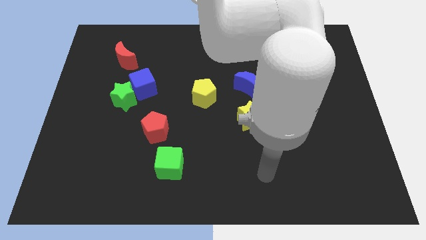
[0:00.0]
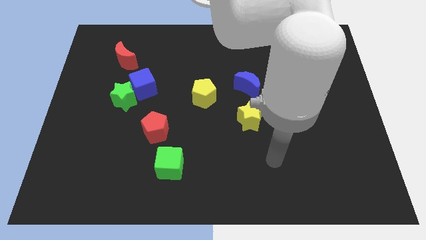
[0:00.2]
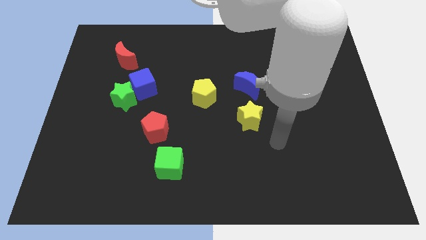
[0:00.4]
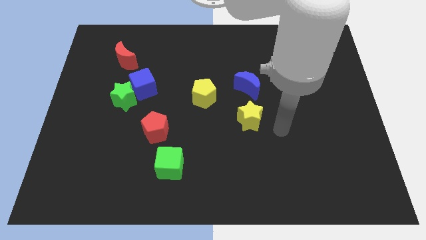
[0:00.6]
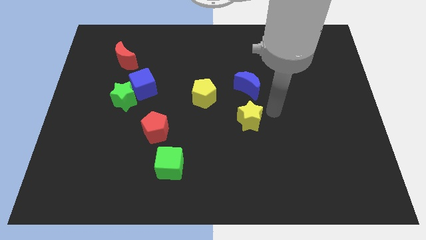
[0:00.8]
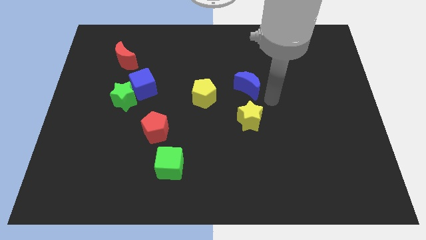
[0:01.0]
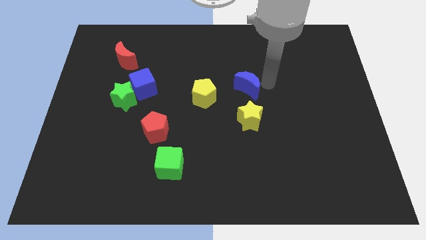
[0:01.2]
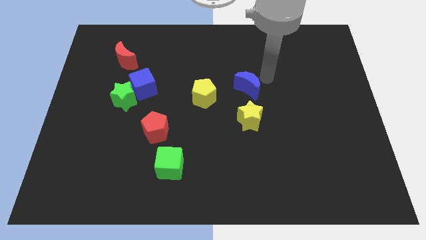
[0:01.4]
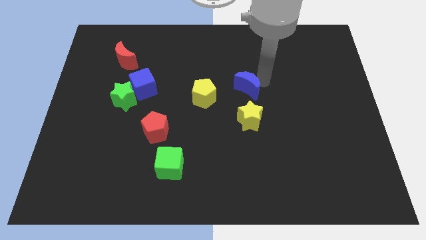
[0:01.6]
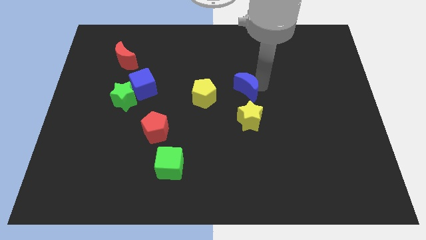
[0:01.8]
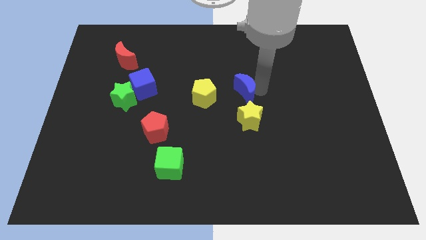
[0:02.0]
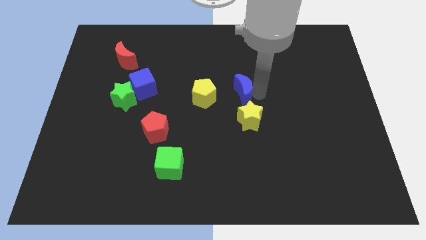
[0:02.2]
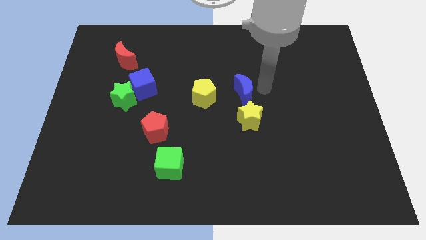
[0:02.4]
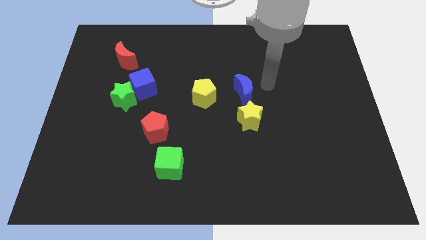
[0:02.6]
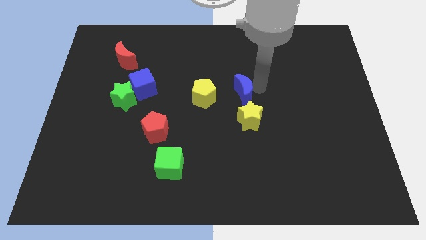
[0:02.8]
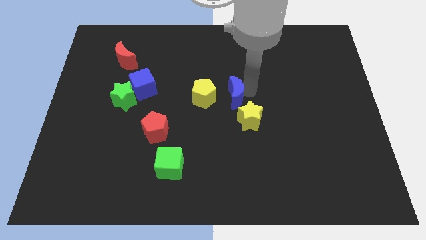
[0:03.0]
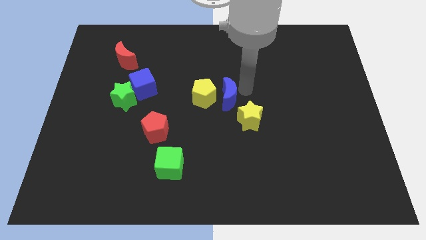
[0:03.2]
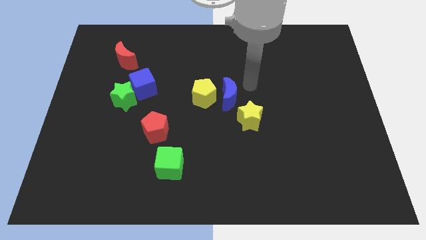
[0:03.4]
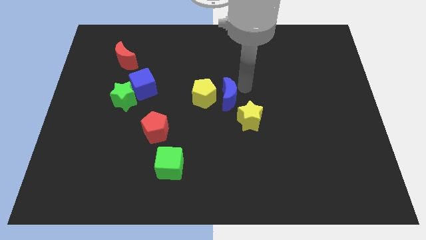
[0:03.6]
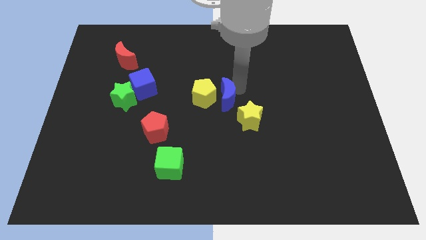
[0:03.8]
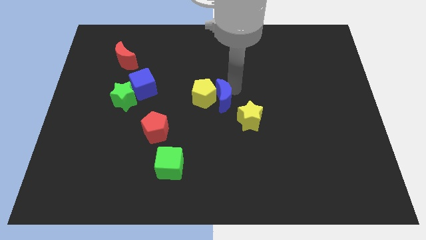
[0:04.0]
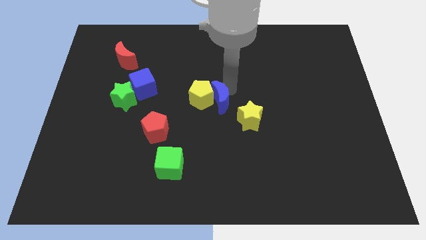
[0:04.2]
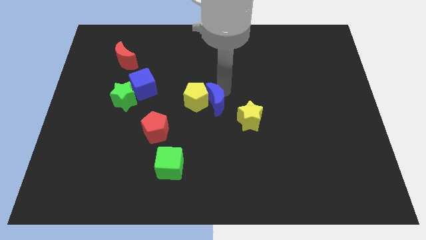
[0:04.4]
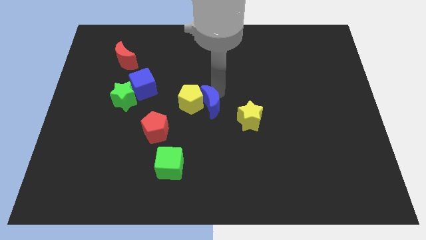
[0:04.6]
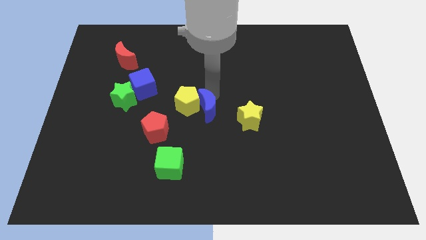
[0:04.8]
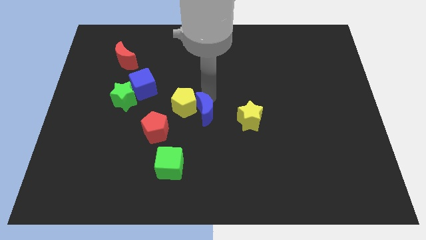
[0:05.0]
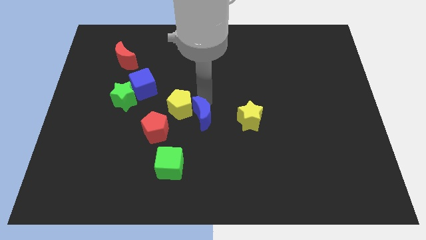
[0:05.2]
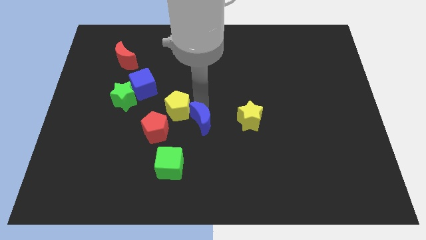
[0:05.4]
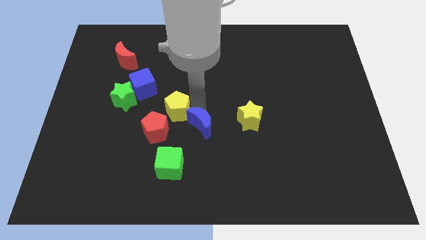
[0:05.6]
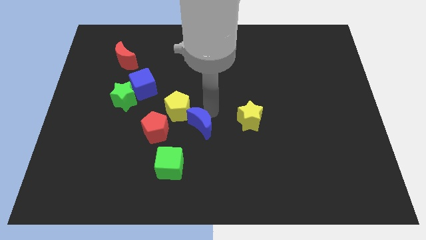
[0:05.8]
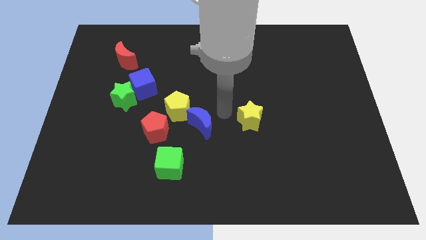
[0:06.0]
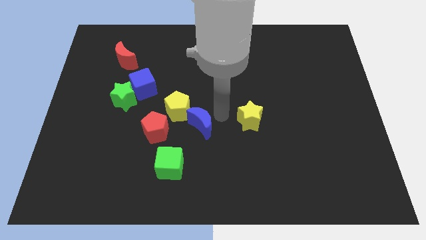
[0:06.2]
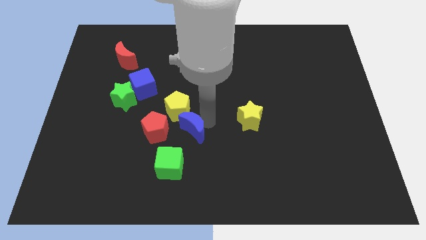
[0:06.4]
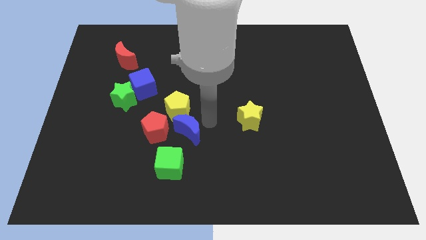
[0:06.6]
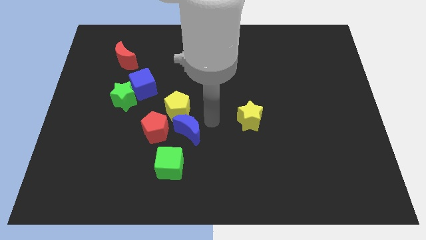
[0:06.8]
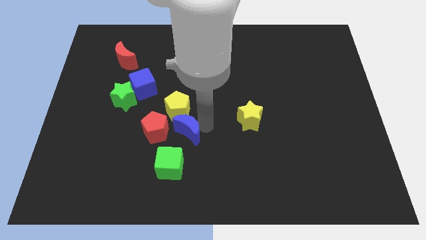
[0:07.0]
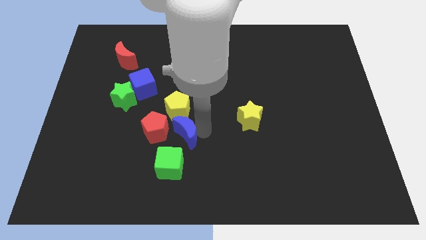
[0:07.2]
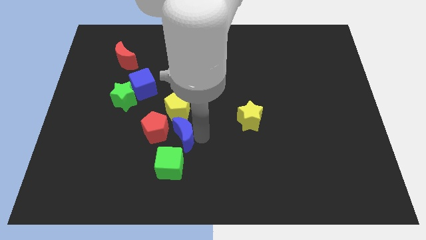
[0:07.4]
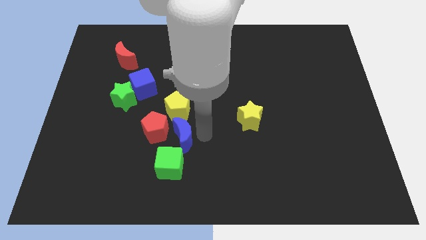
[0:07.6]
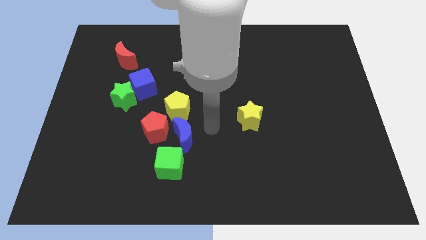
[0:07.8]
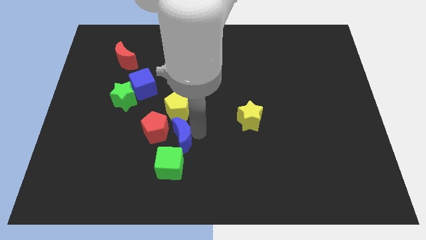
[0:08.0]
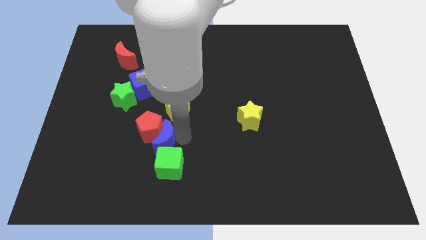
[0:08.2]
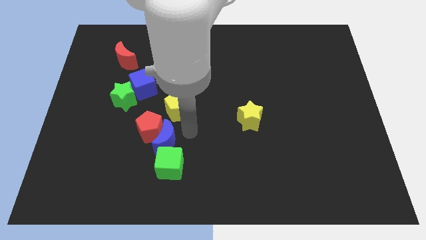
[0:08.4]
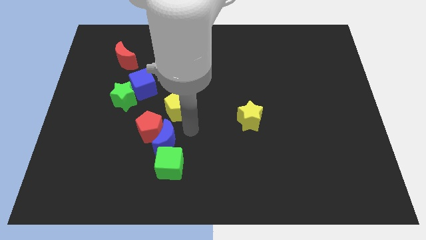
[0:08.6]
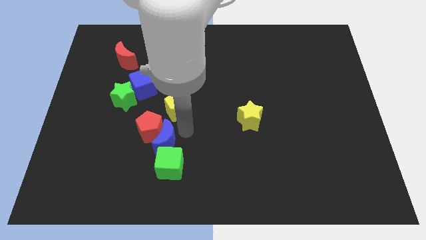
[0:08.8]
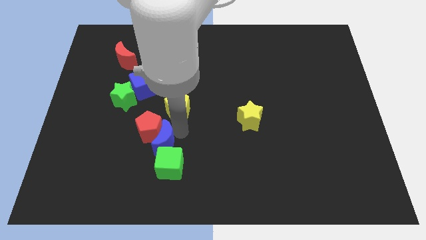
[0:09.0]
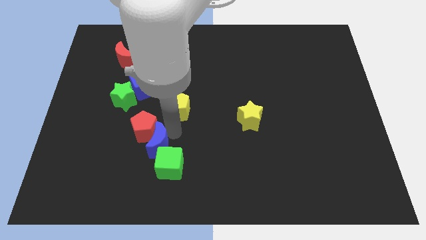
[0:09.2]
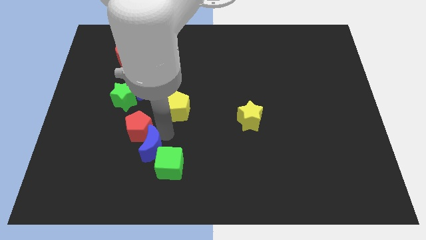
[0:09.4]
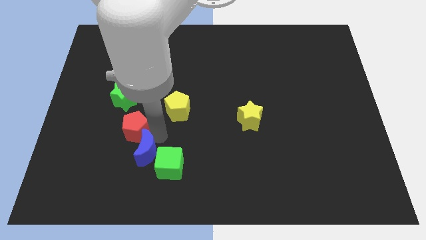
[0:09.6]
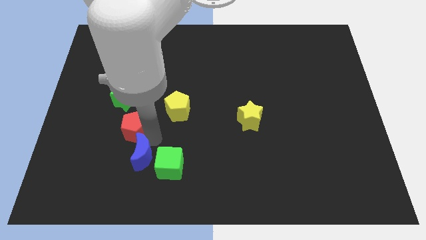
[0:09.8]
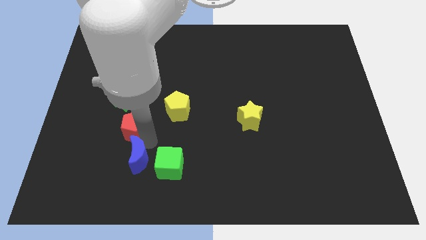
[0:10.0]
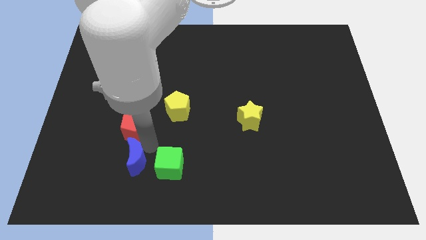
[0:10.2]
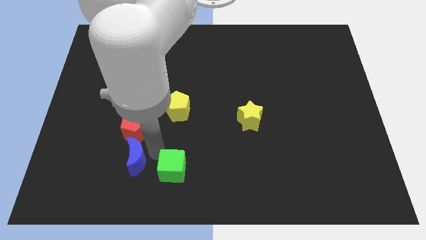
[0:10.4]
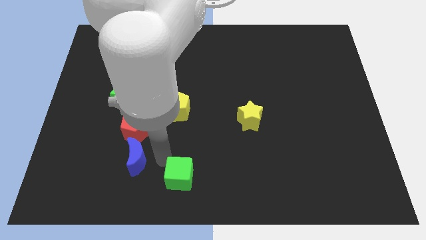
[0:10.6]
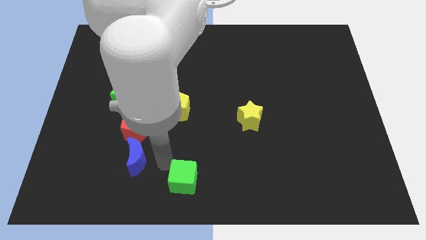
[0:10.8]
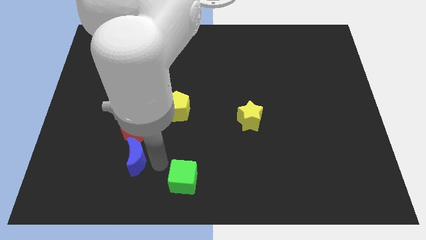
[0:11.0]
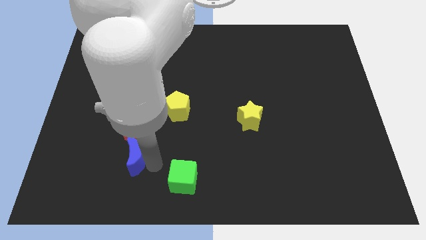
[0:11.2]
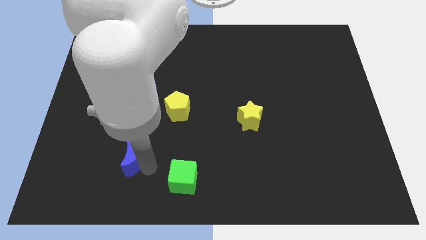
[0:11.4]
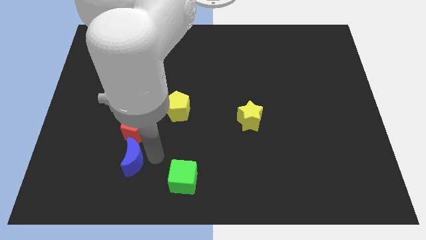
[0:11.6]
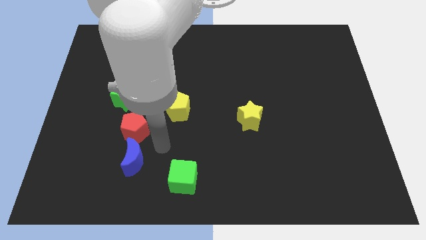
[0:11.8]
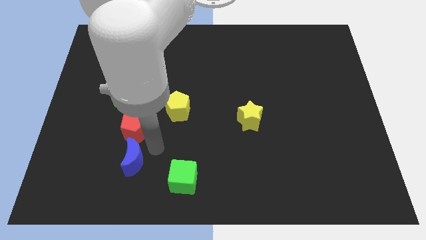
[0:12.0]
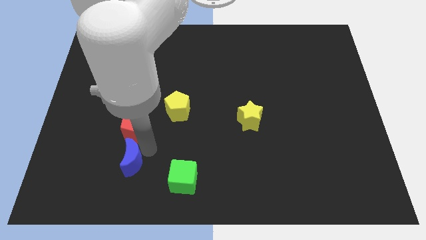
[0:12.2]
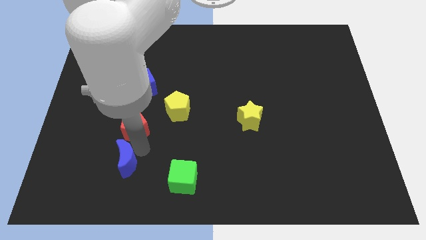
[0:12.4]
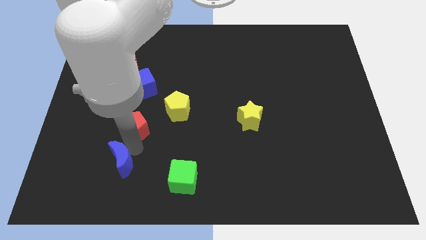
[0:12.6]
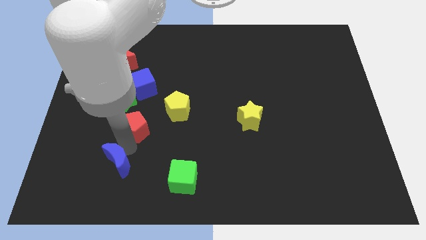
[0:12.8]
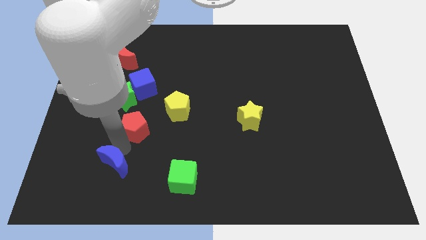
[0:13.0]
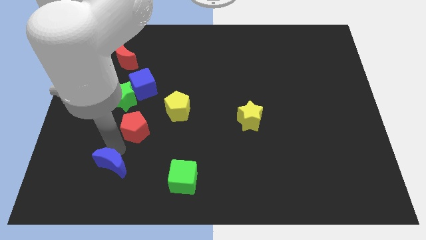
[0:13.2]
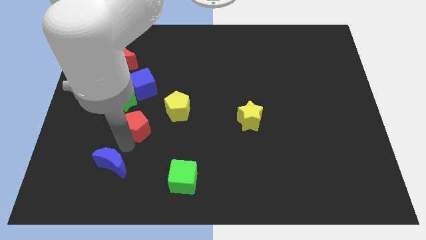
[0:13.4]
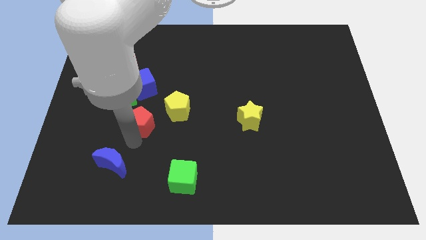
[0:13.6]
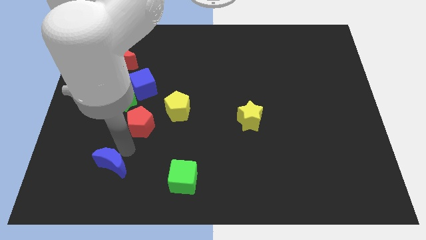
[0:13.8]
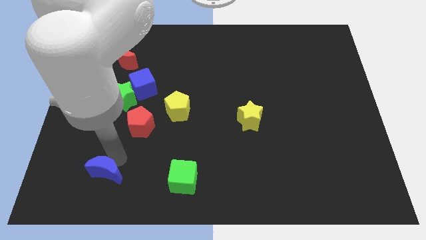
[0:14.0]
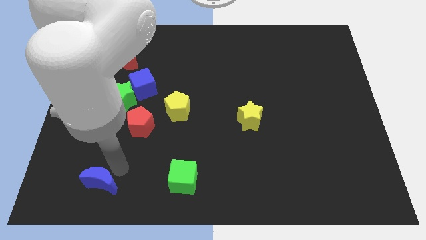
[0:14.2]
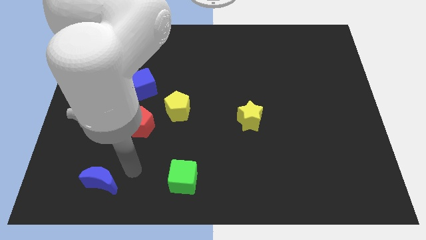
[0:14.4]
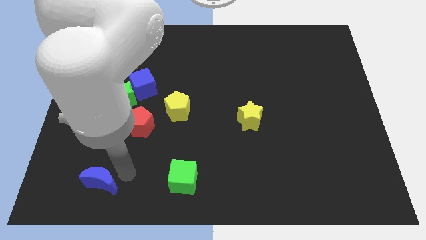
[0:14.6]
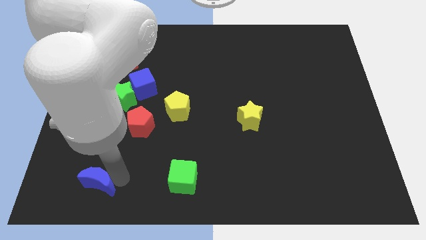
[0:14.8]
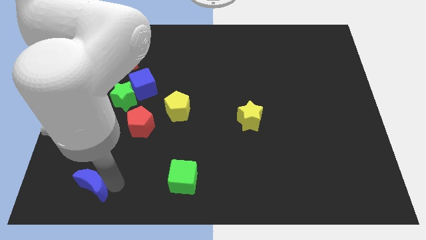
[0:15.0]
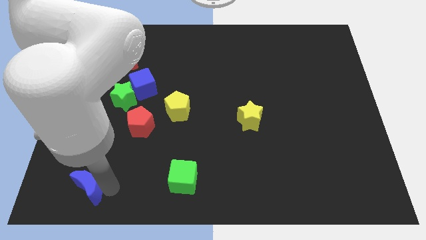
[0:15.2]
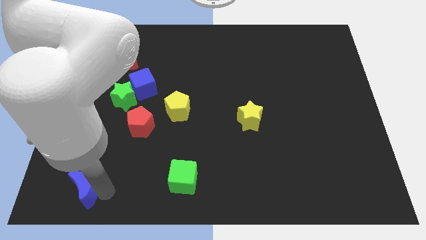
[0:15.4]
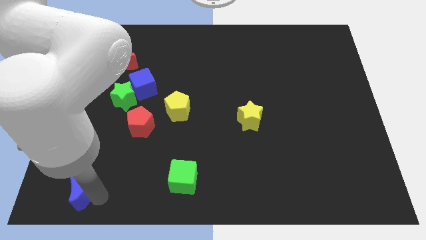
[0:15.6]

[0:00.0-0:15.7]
move the blue moon to the bottom left
